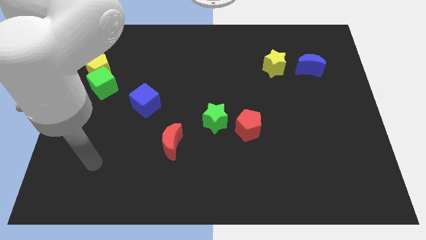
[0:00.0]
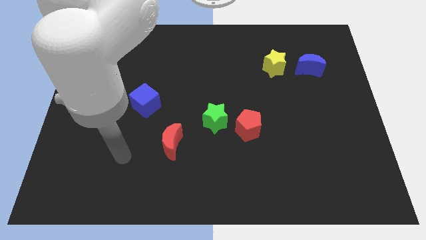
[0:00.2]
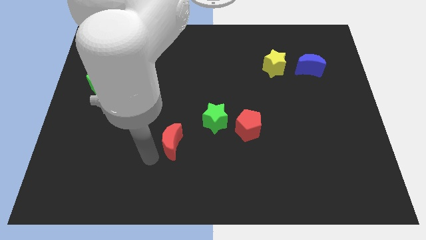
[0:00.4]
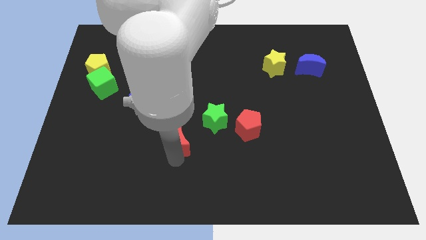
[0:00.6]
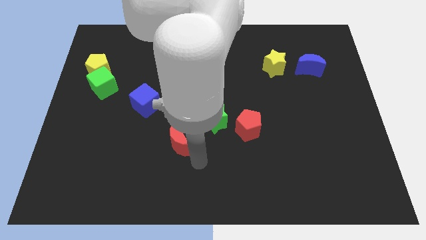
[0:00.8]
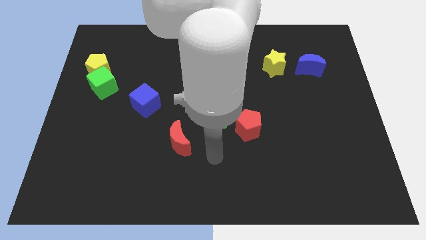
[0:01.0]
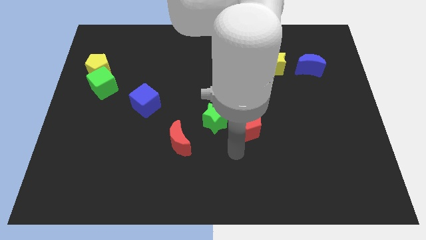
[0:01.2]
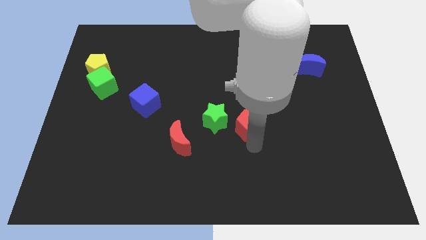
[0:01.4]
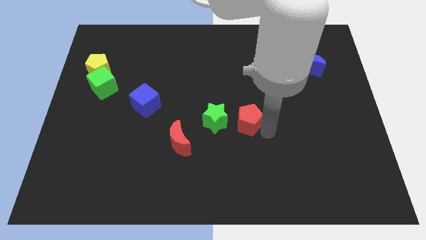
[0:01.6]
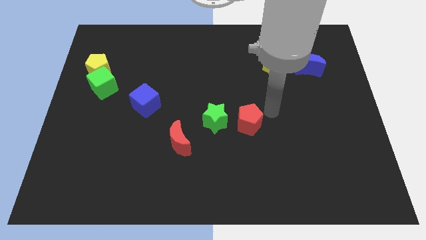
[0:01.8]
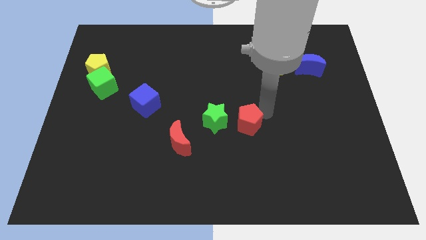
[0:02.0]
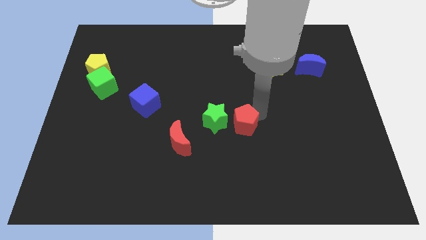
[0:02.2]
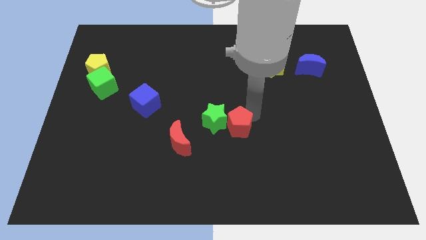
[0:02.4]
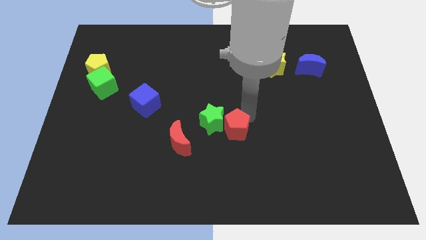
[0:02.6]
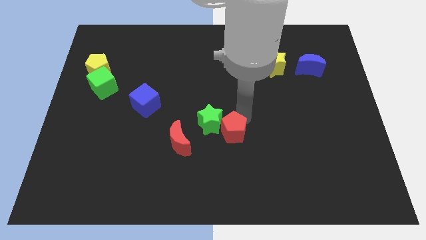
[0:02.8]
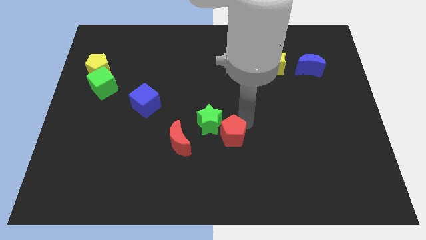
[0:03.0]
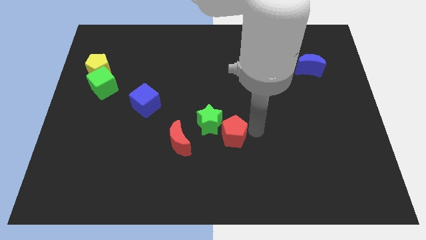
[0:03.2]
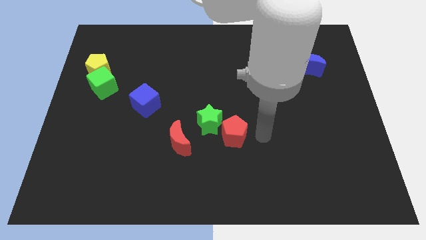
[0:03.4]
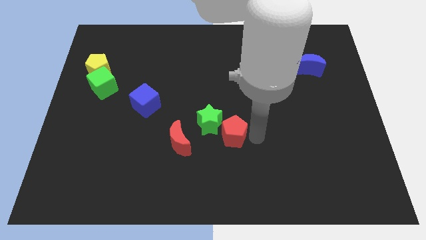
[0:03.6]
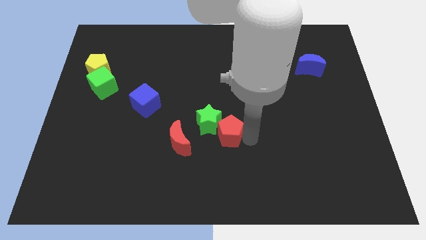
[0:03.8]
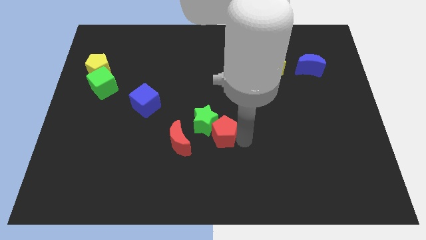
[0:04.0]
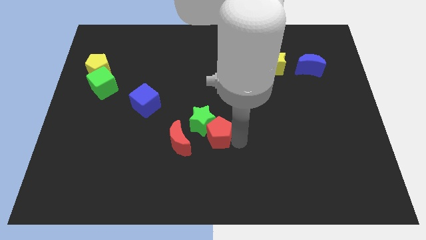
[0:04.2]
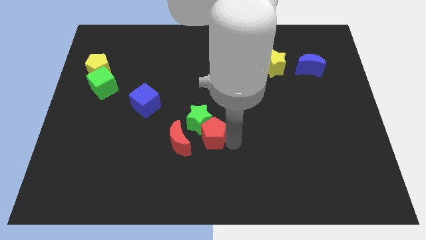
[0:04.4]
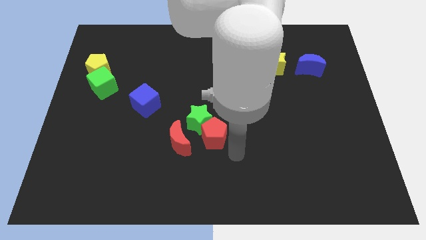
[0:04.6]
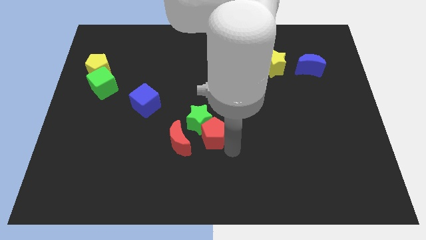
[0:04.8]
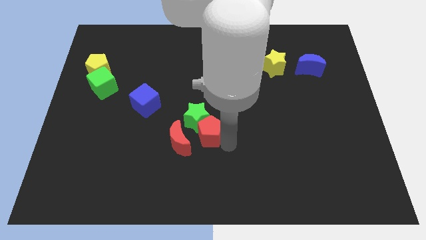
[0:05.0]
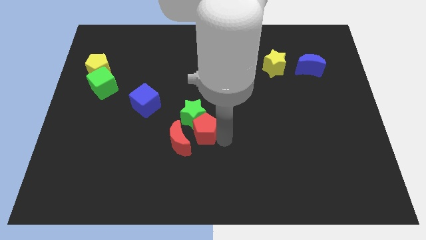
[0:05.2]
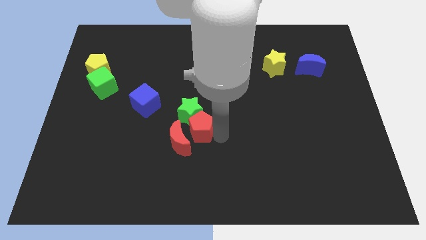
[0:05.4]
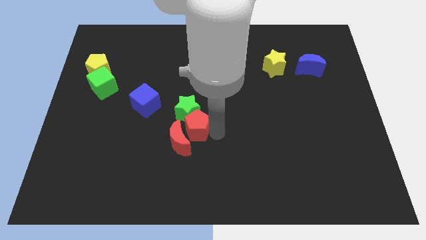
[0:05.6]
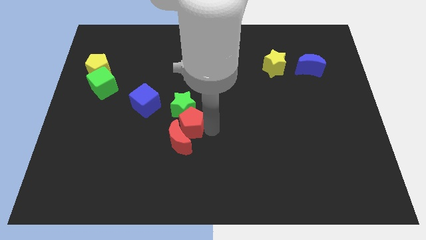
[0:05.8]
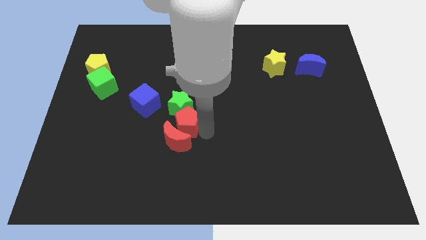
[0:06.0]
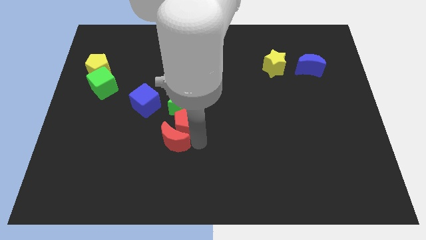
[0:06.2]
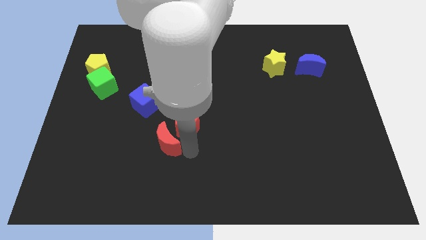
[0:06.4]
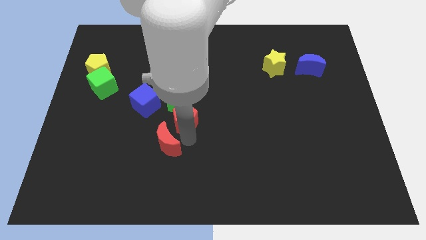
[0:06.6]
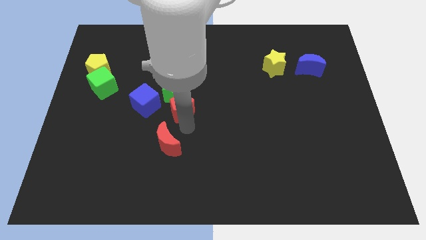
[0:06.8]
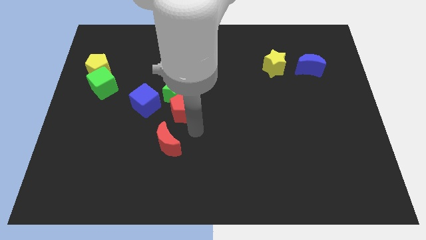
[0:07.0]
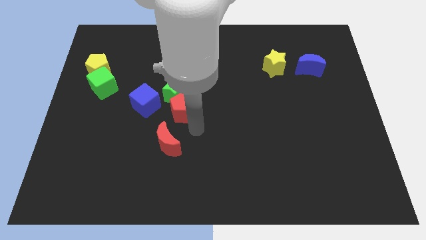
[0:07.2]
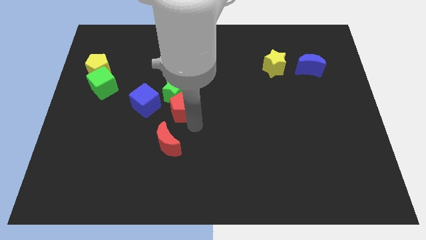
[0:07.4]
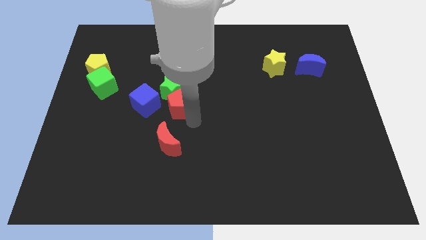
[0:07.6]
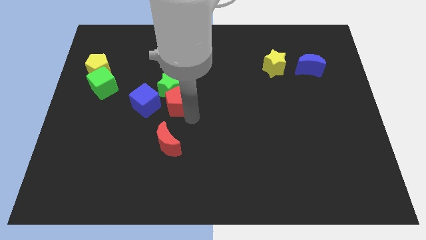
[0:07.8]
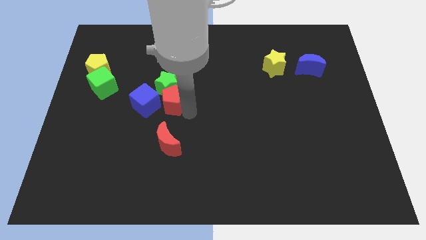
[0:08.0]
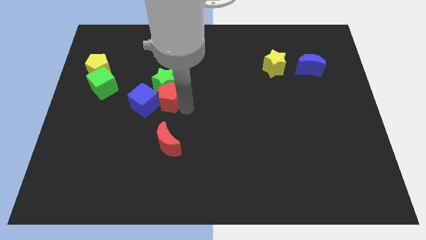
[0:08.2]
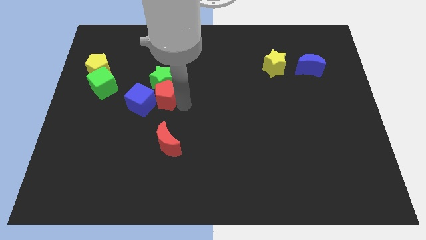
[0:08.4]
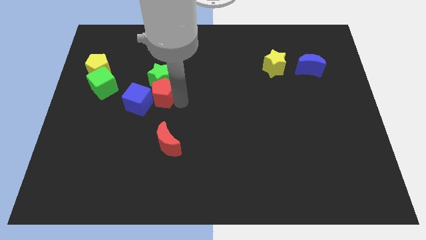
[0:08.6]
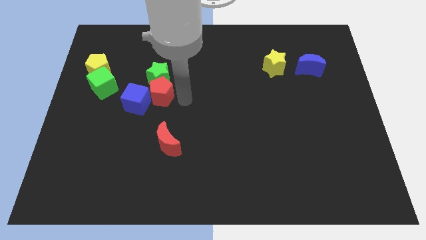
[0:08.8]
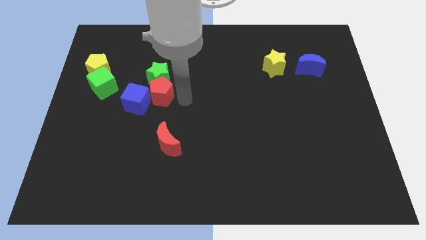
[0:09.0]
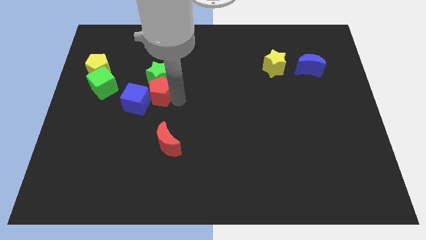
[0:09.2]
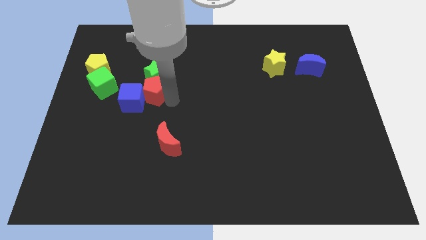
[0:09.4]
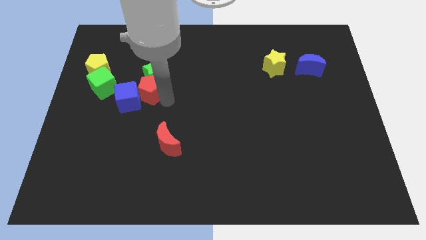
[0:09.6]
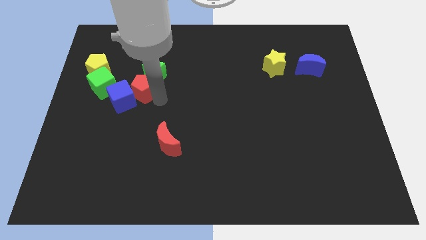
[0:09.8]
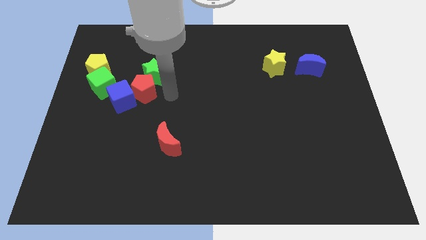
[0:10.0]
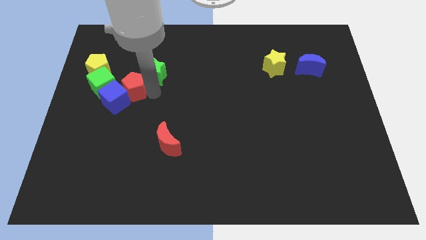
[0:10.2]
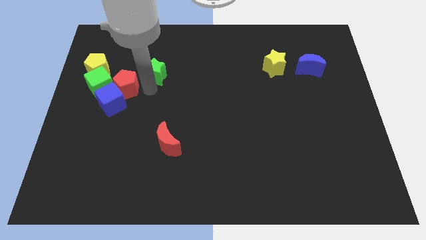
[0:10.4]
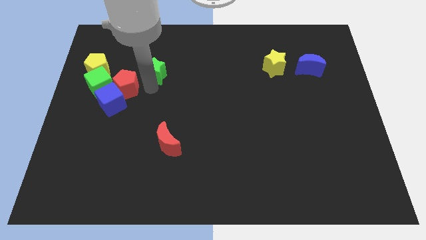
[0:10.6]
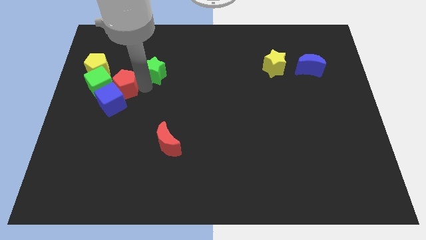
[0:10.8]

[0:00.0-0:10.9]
move the red pentagon towards the green cube
